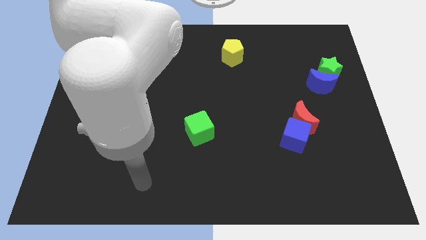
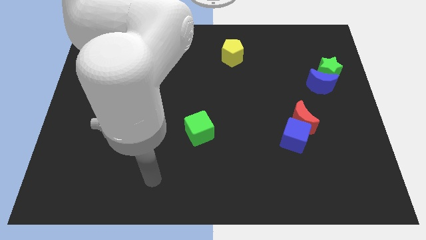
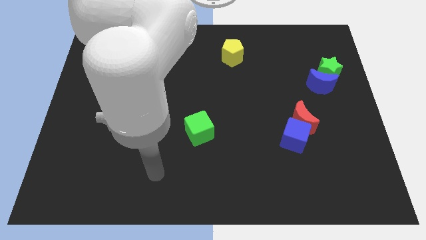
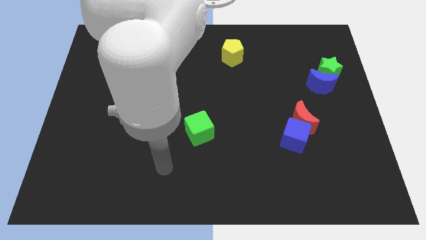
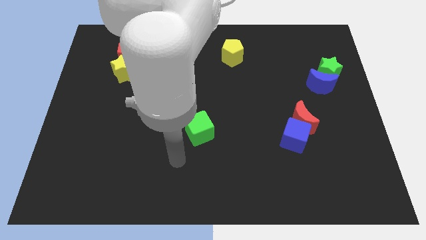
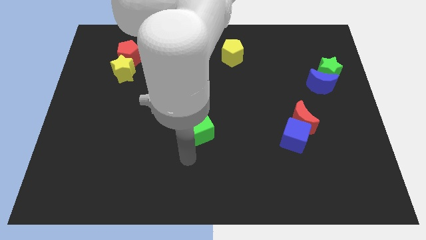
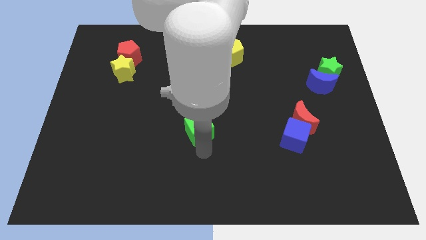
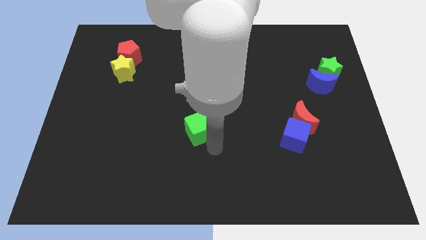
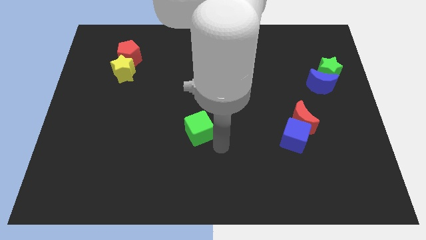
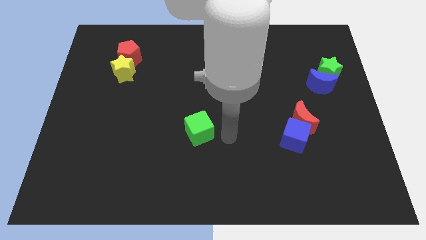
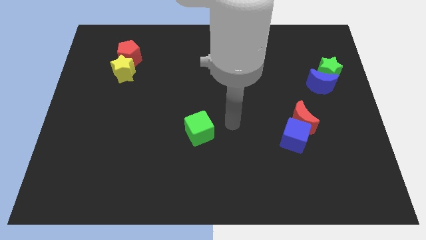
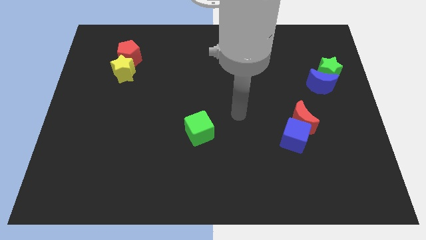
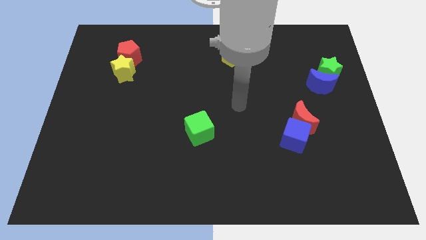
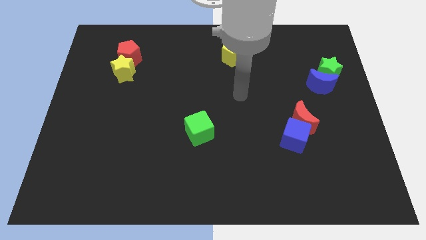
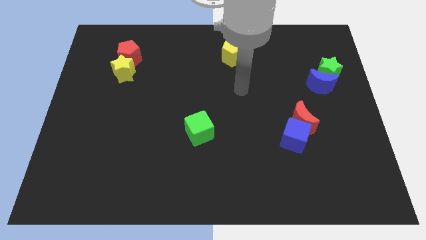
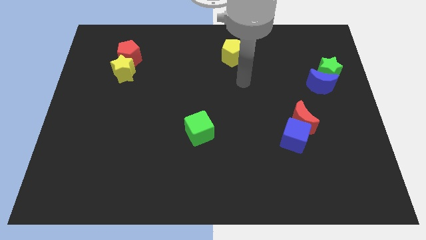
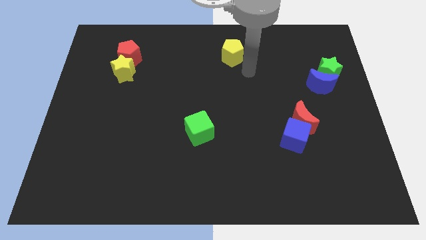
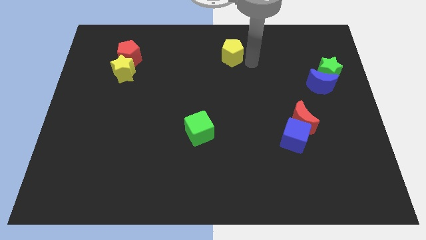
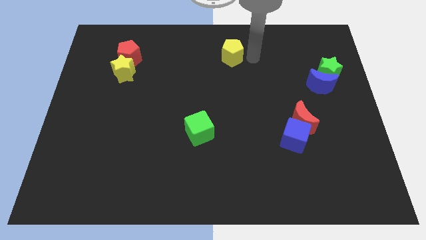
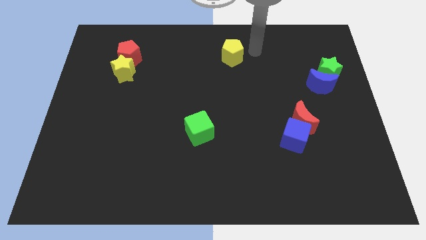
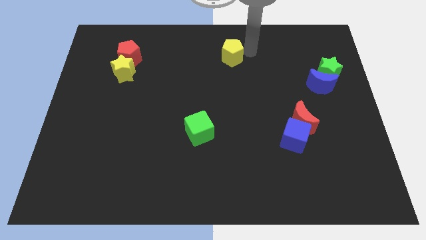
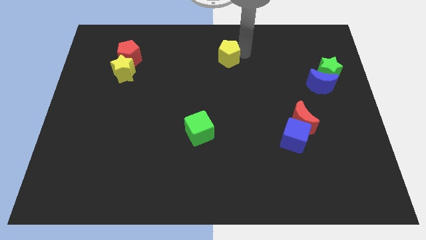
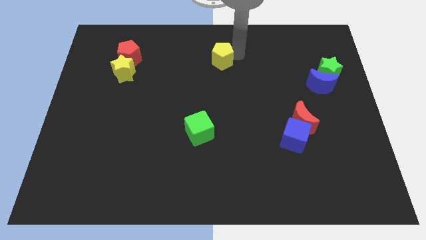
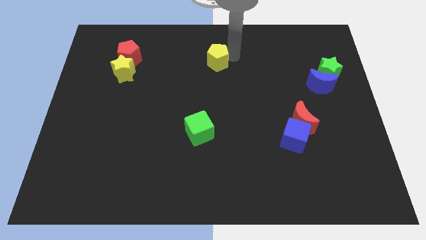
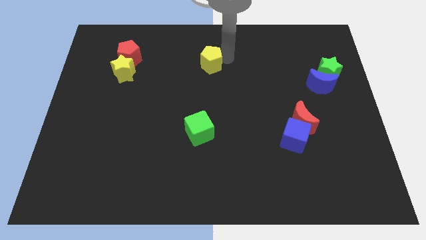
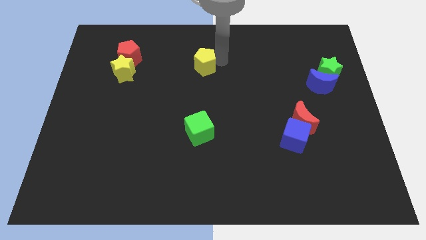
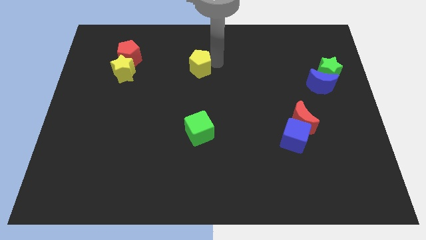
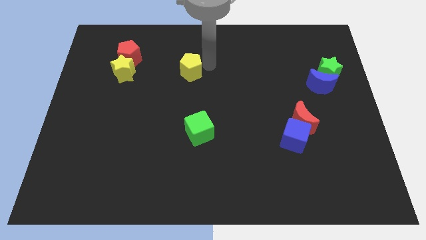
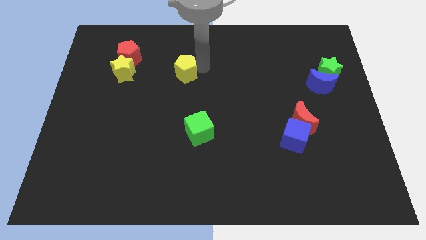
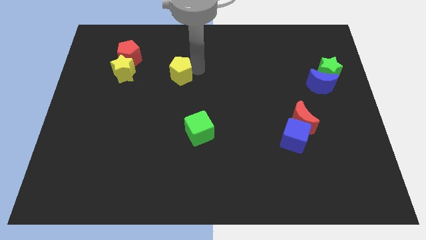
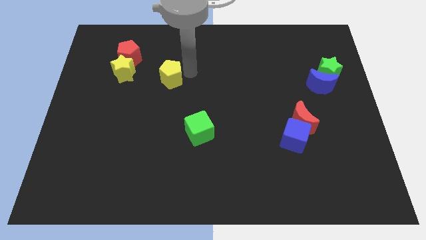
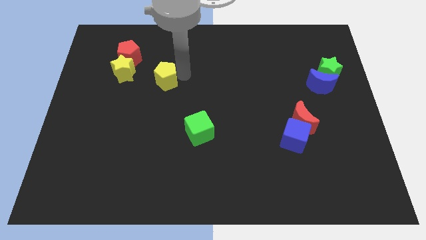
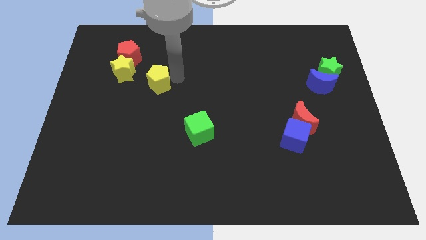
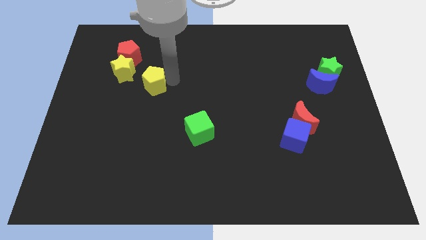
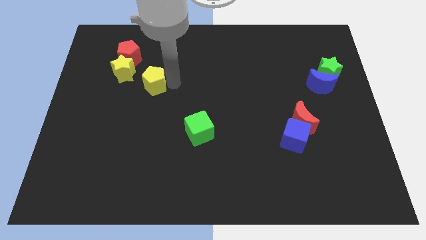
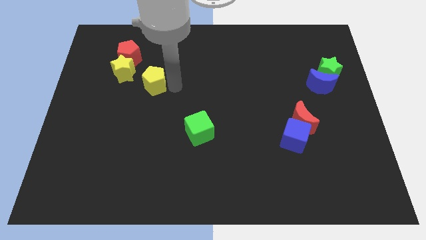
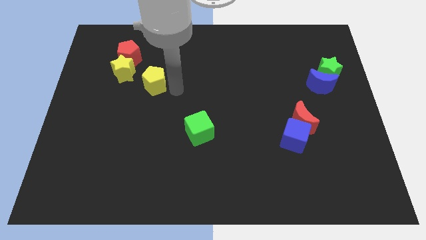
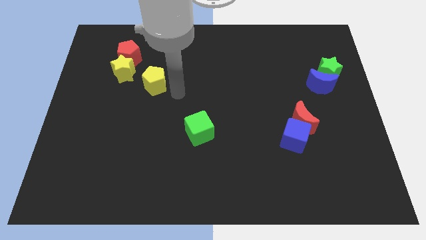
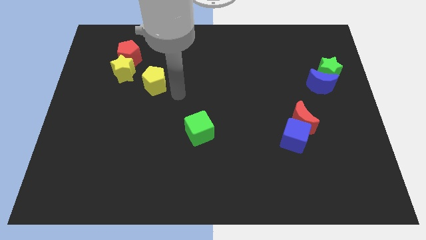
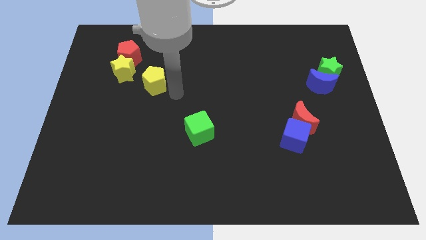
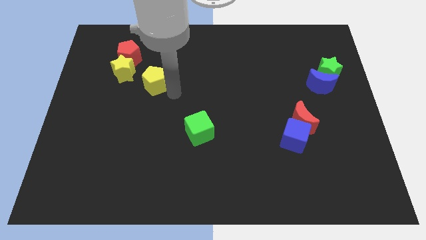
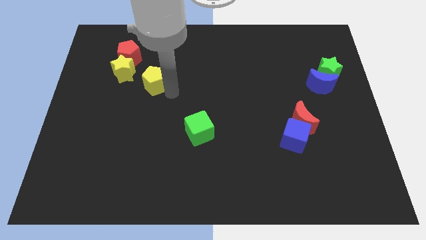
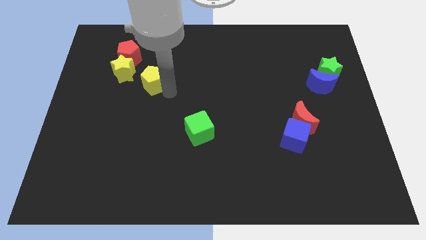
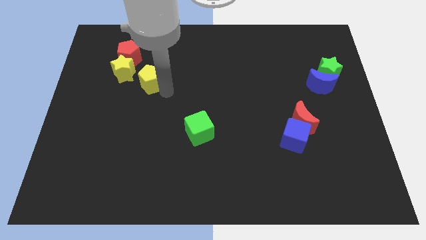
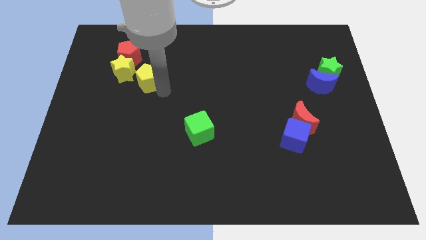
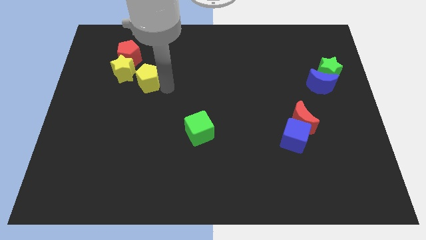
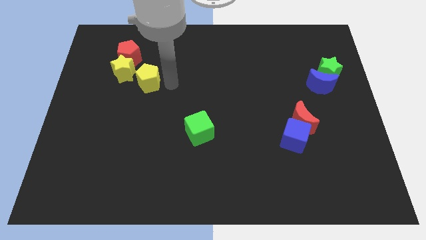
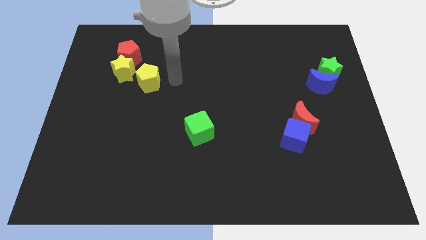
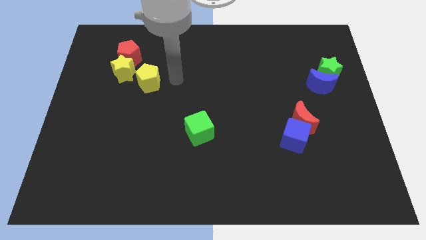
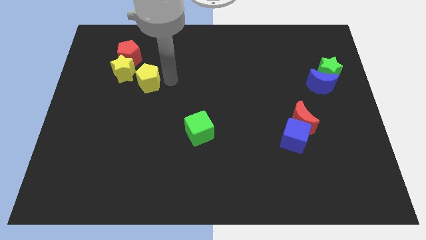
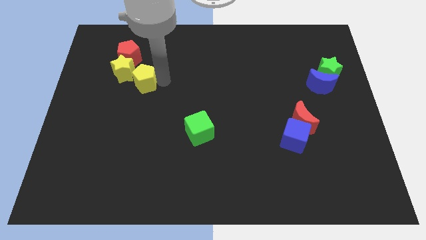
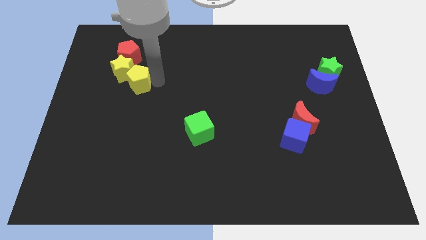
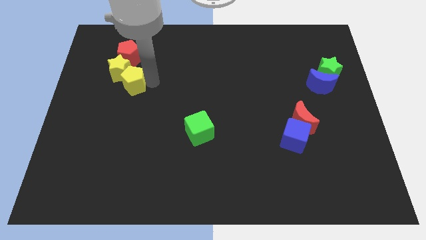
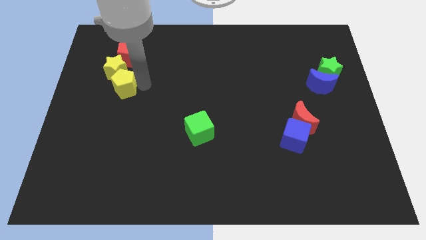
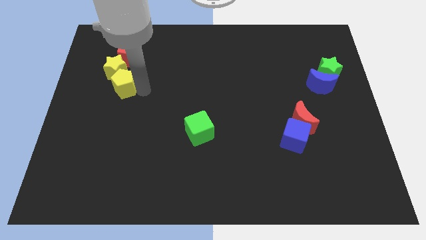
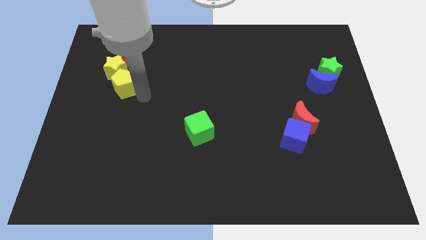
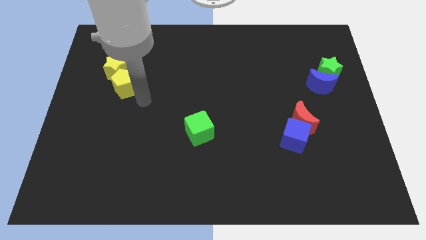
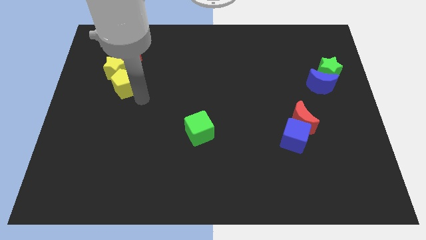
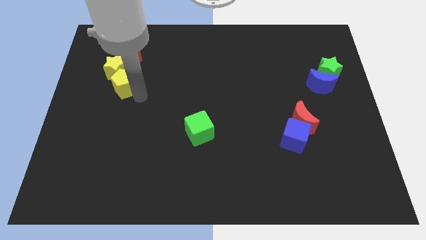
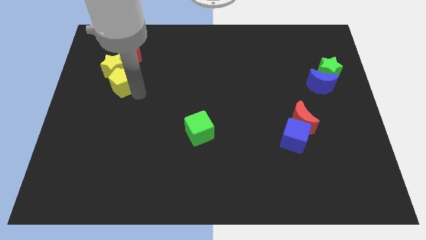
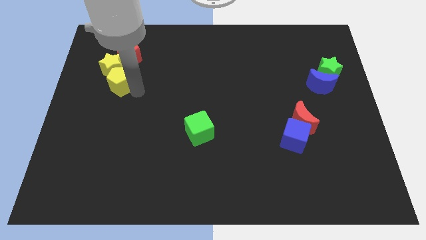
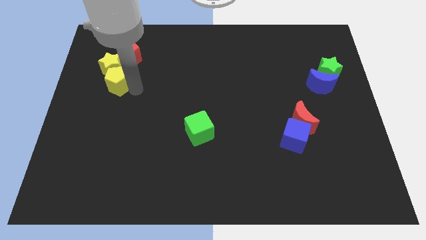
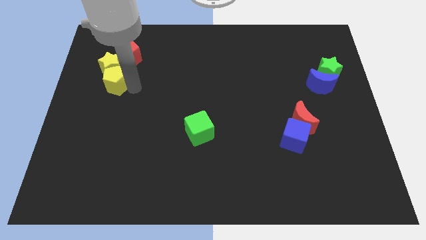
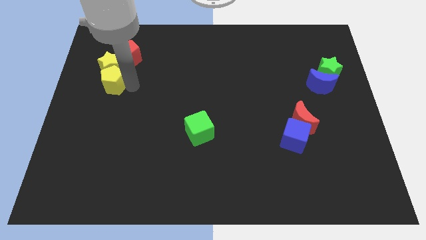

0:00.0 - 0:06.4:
push the yellow pentagon diagonally down and to the left of the red pentagon

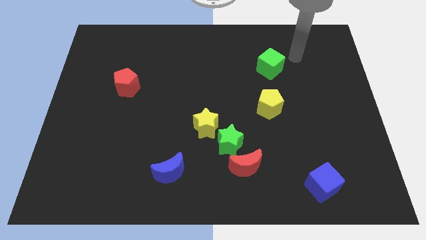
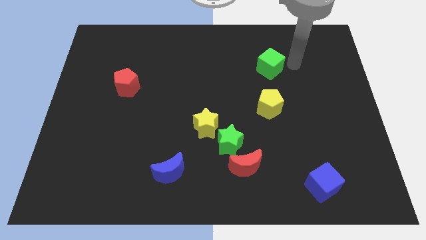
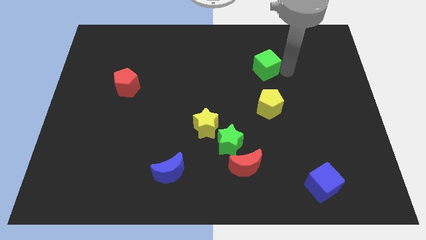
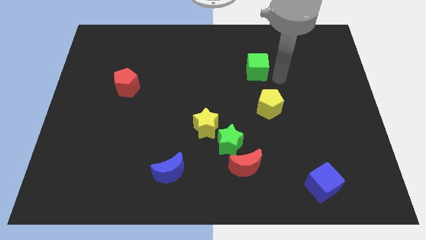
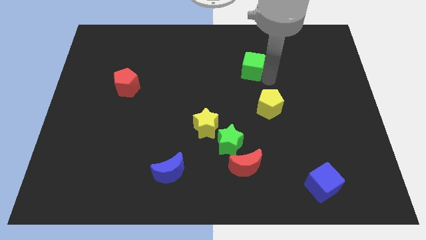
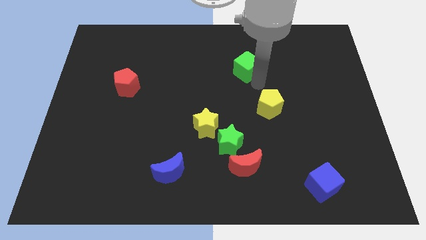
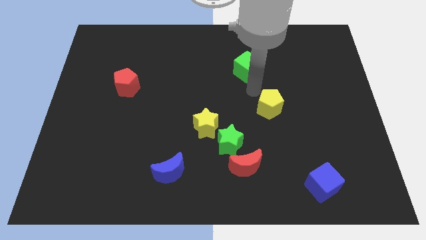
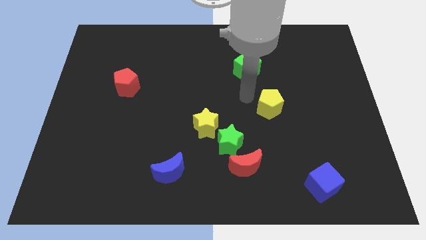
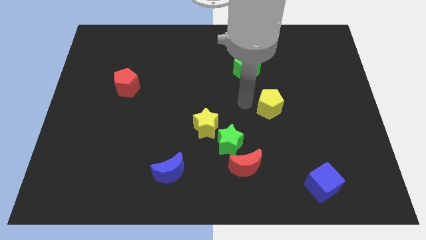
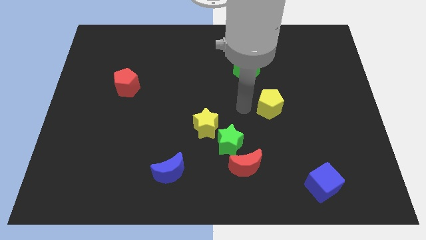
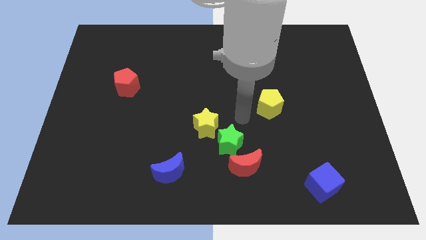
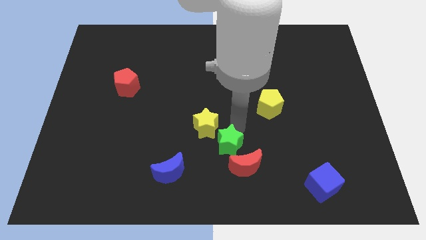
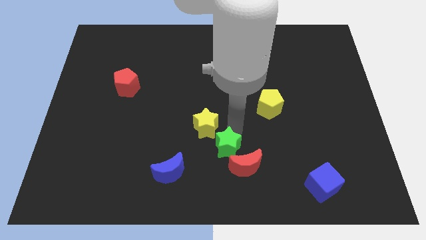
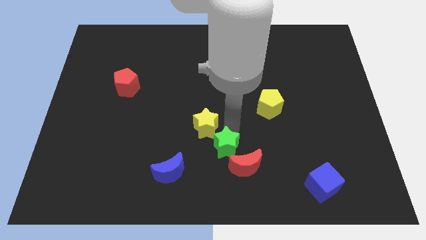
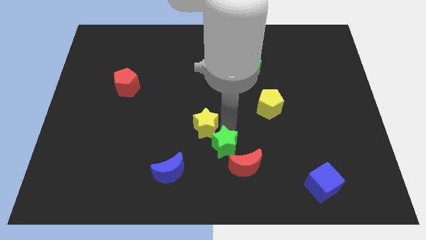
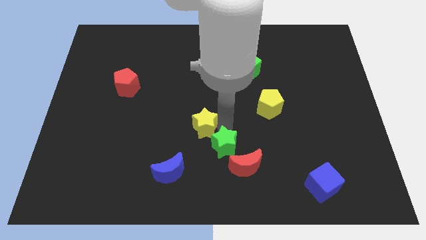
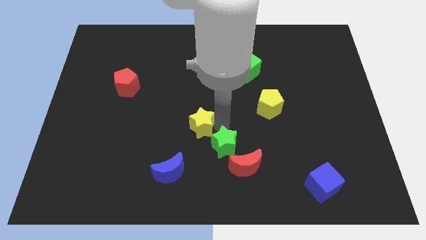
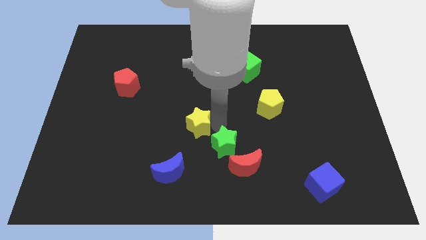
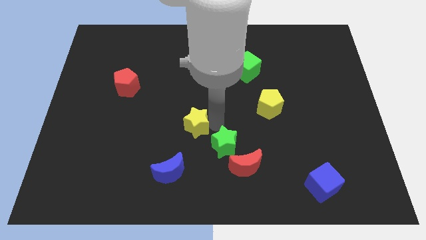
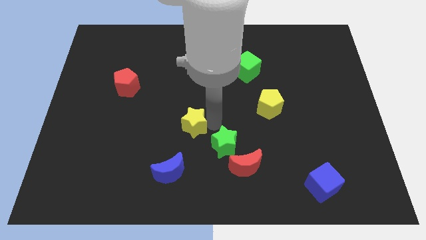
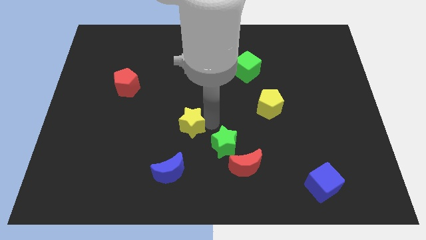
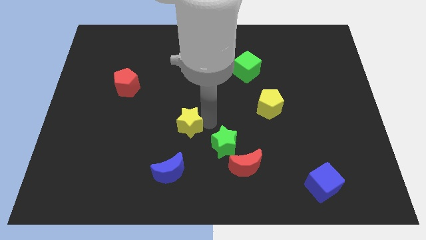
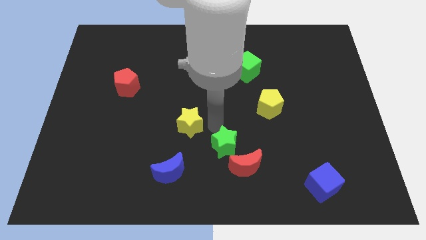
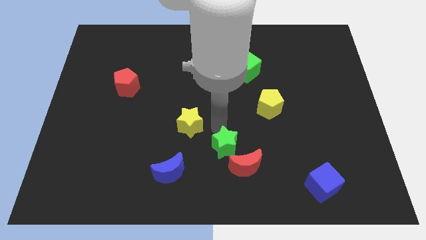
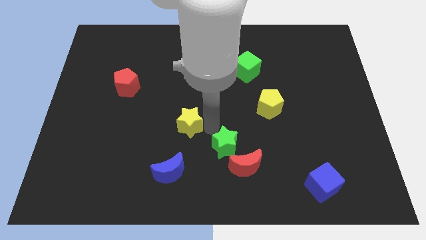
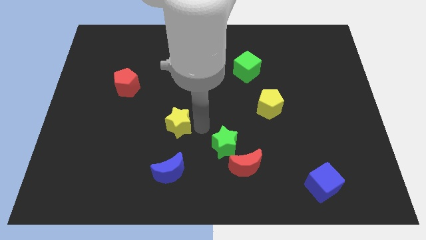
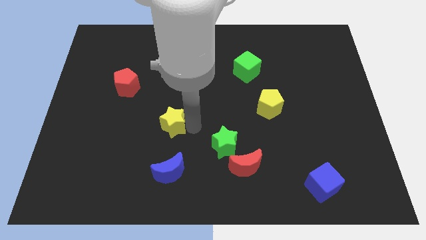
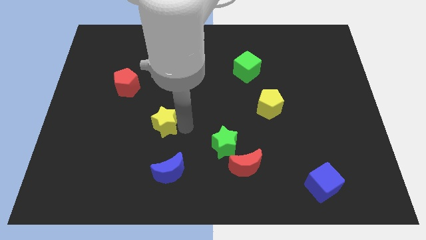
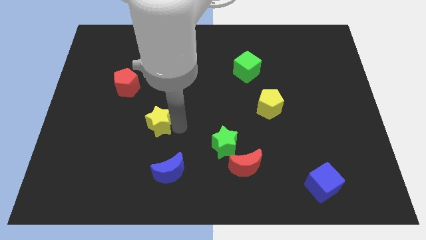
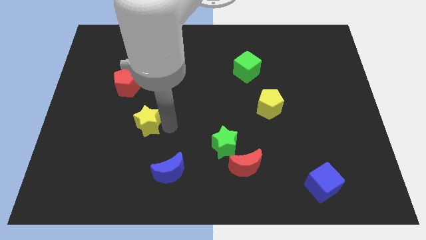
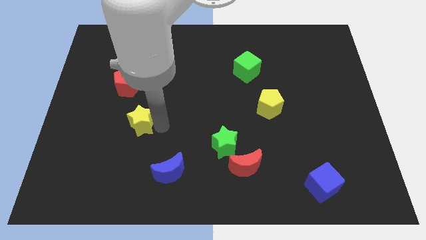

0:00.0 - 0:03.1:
slide the yellow star to the bottom of the red pentagon
